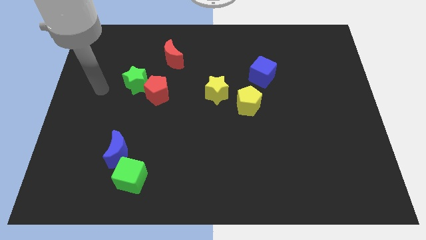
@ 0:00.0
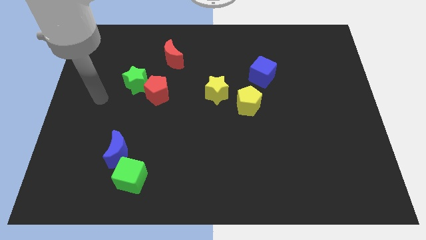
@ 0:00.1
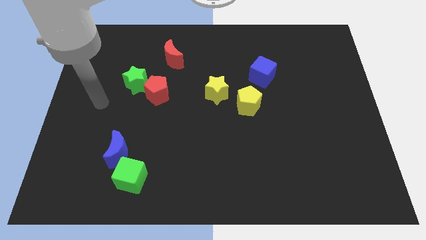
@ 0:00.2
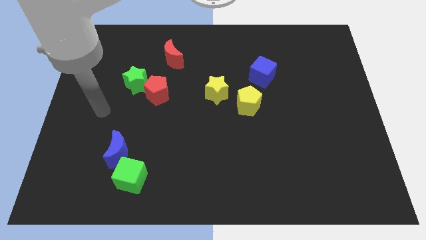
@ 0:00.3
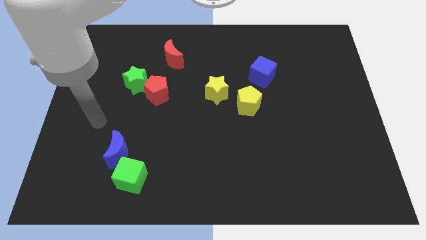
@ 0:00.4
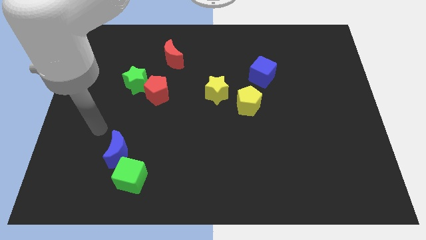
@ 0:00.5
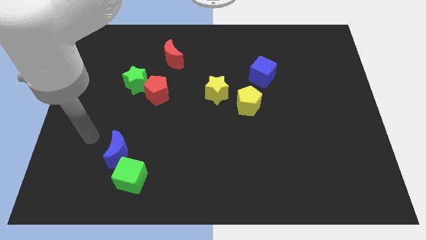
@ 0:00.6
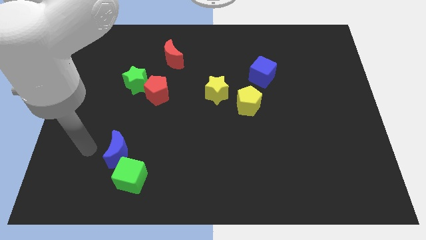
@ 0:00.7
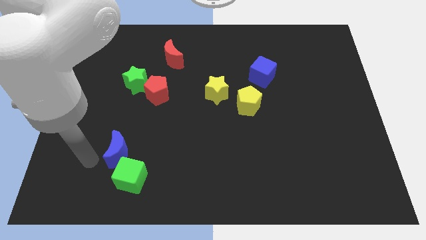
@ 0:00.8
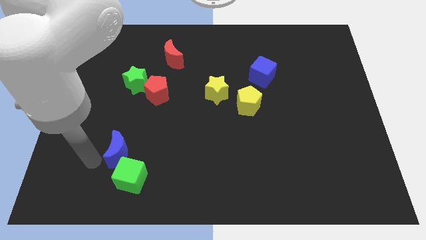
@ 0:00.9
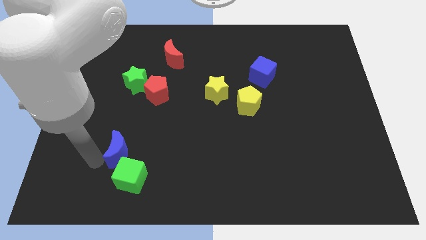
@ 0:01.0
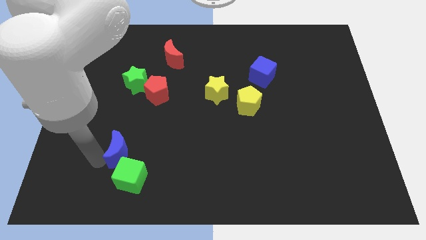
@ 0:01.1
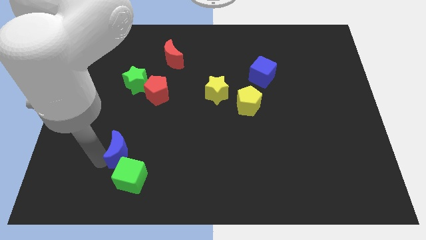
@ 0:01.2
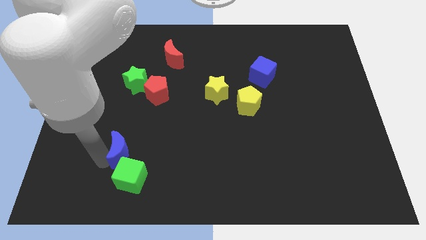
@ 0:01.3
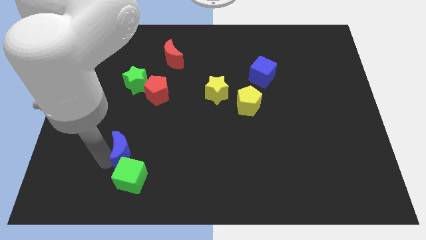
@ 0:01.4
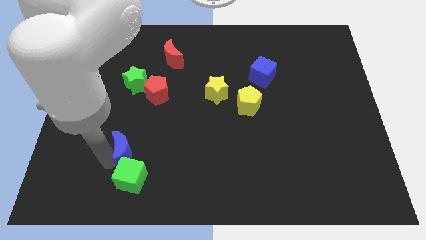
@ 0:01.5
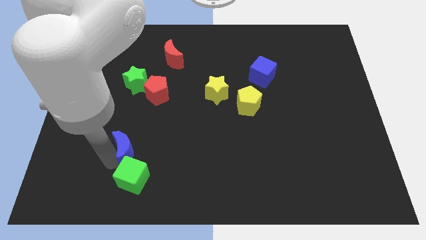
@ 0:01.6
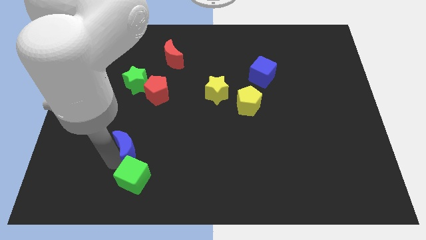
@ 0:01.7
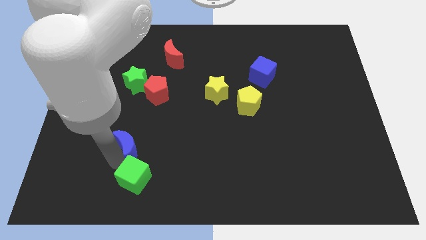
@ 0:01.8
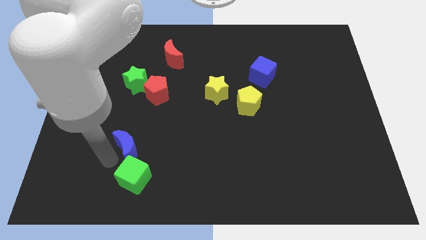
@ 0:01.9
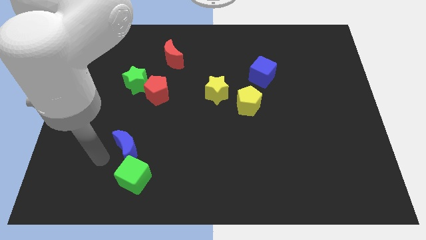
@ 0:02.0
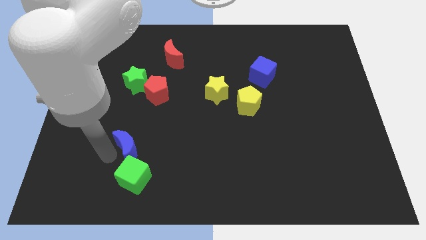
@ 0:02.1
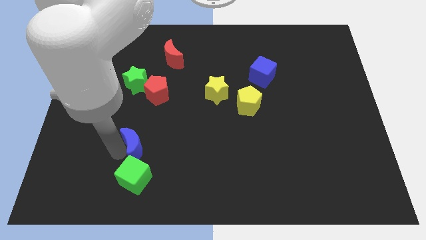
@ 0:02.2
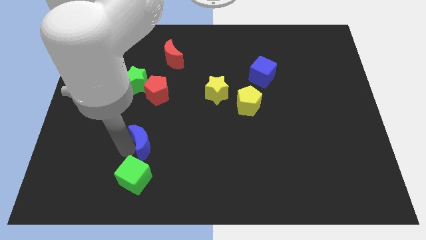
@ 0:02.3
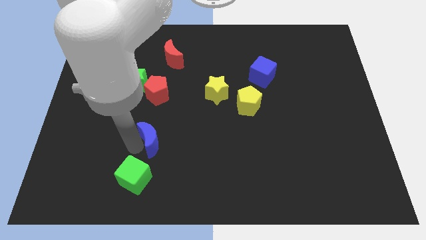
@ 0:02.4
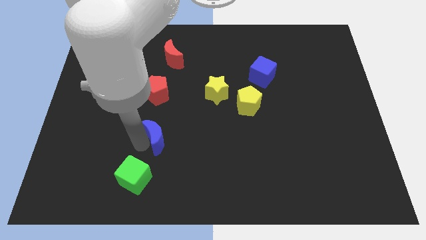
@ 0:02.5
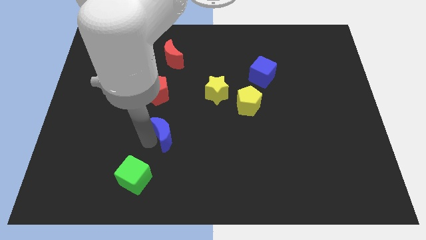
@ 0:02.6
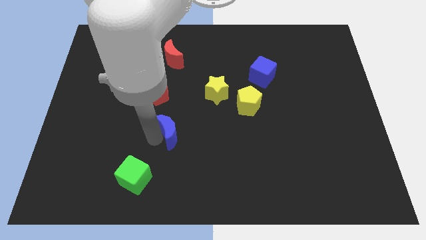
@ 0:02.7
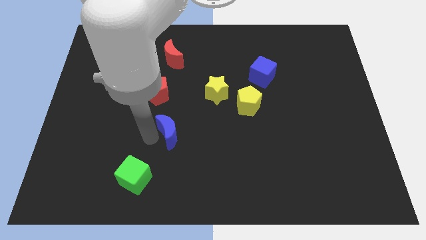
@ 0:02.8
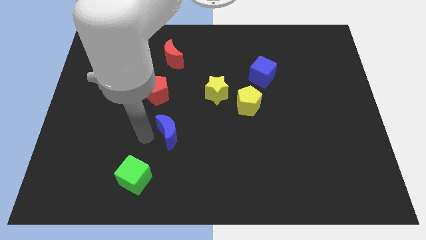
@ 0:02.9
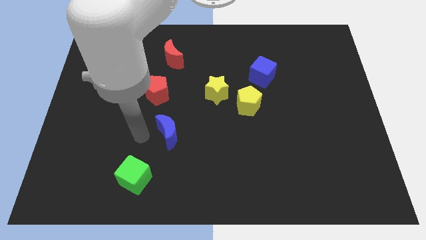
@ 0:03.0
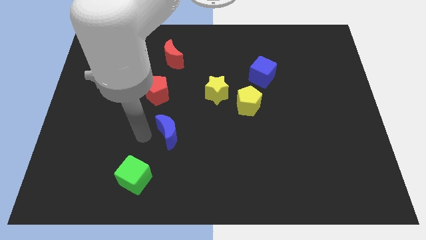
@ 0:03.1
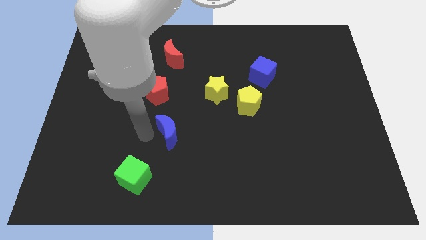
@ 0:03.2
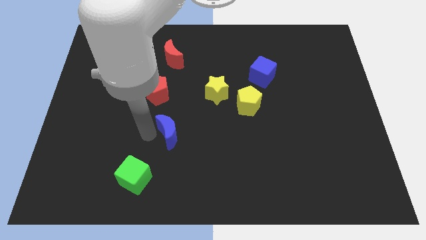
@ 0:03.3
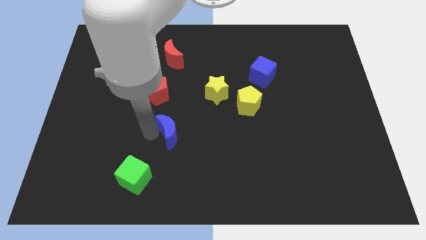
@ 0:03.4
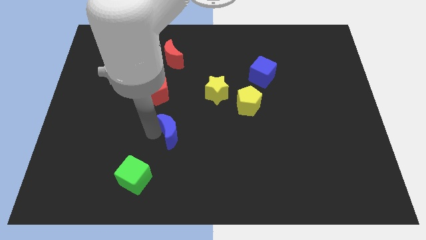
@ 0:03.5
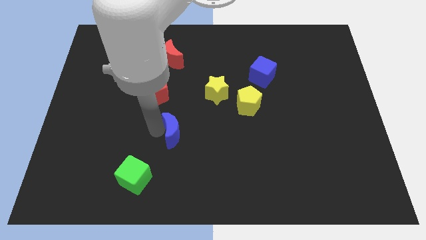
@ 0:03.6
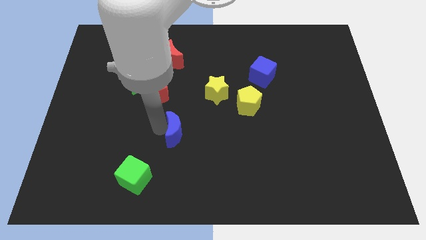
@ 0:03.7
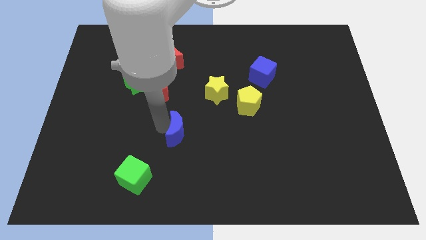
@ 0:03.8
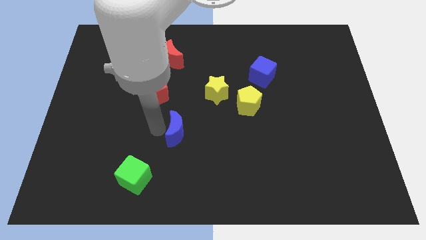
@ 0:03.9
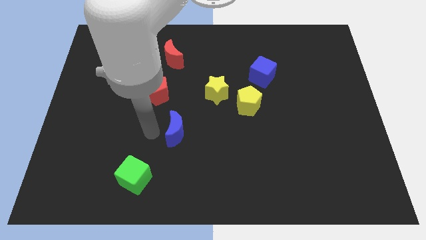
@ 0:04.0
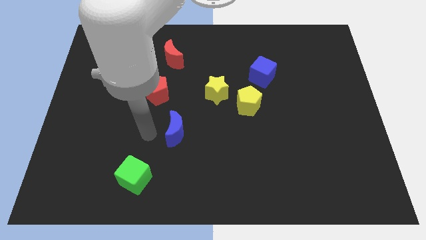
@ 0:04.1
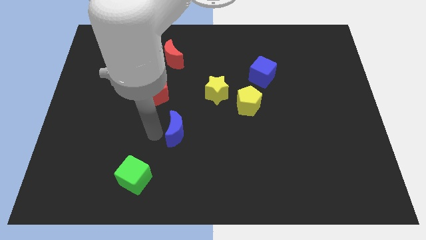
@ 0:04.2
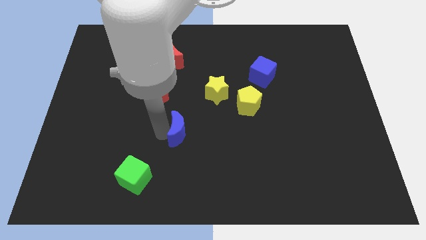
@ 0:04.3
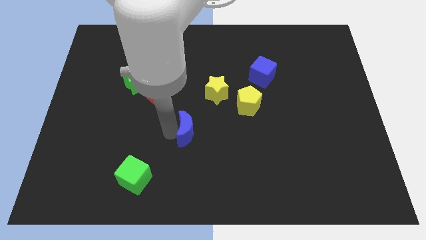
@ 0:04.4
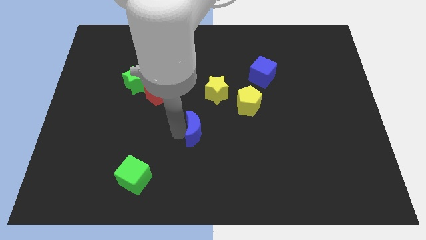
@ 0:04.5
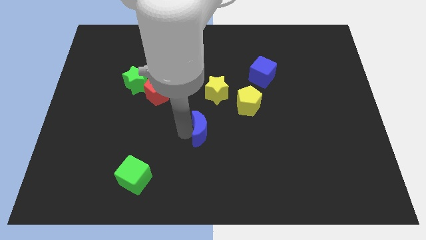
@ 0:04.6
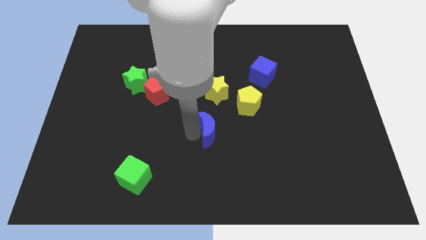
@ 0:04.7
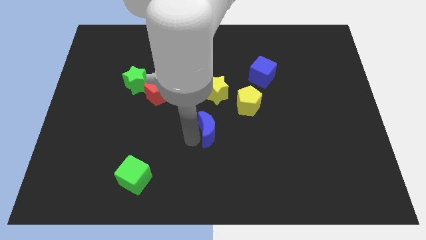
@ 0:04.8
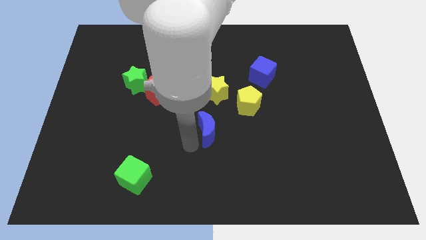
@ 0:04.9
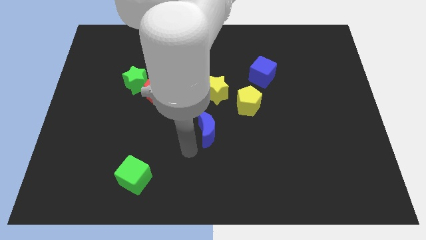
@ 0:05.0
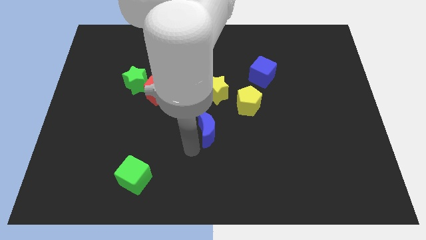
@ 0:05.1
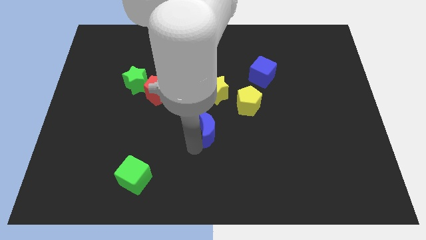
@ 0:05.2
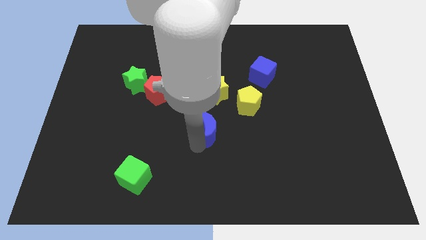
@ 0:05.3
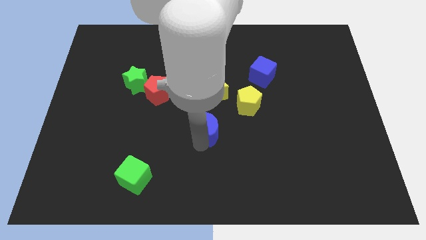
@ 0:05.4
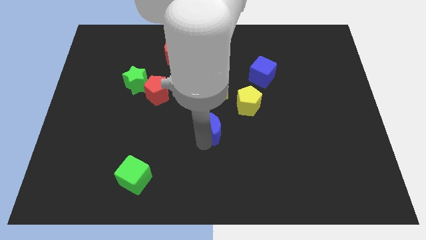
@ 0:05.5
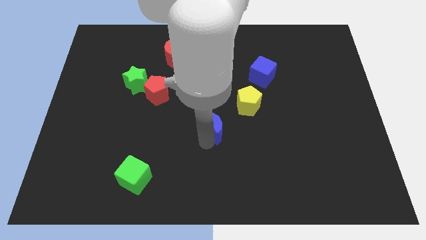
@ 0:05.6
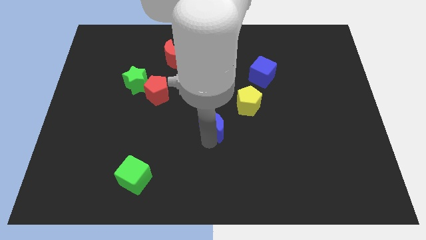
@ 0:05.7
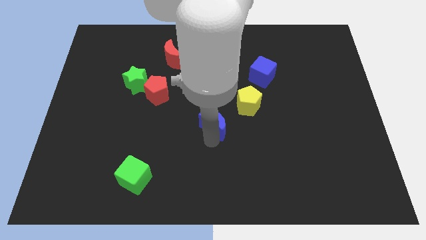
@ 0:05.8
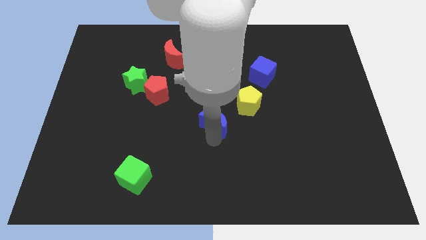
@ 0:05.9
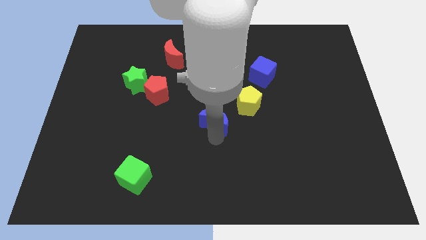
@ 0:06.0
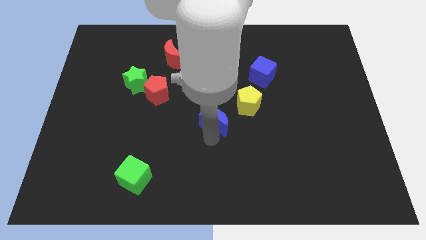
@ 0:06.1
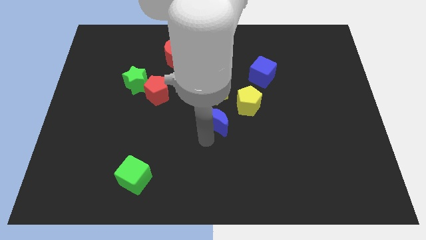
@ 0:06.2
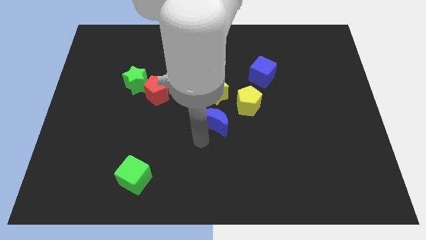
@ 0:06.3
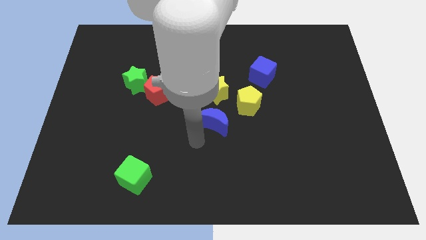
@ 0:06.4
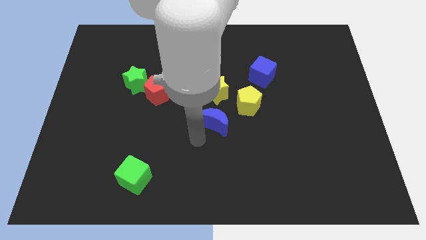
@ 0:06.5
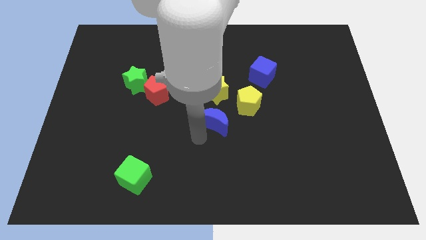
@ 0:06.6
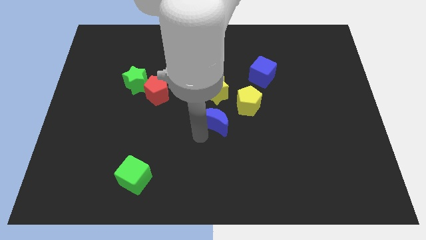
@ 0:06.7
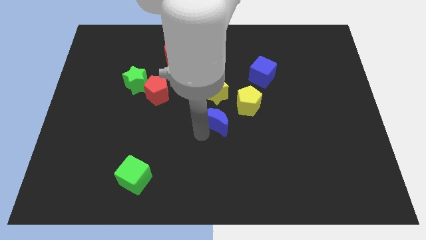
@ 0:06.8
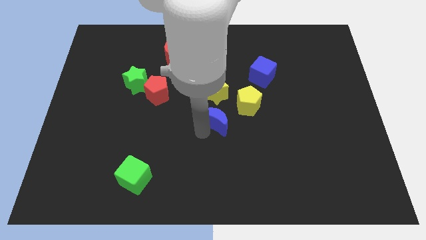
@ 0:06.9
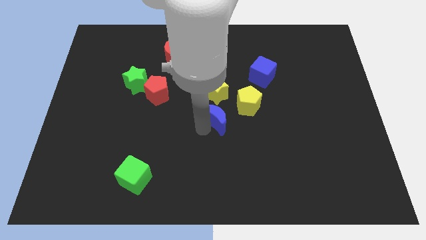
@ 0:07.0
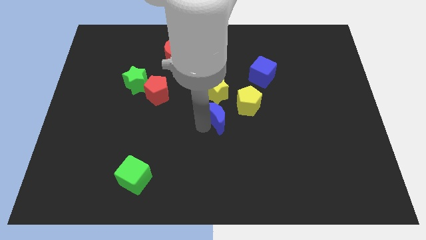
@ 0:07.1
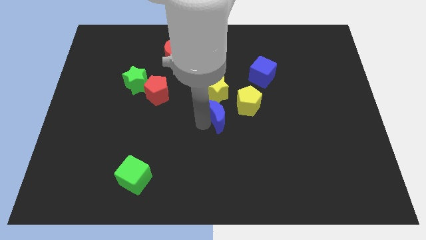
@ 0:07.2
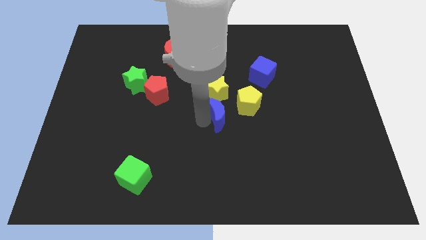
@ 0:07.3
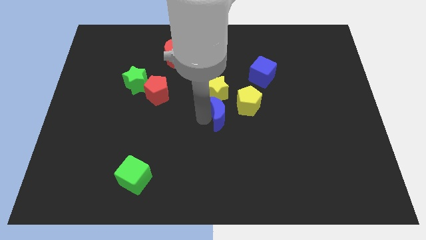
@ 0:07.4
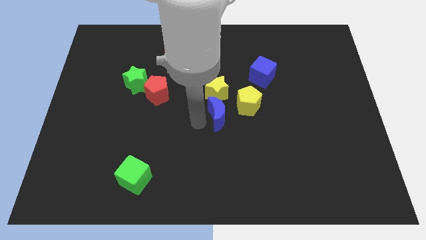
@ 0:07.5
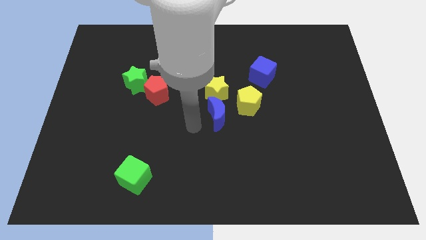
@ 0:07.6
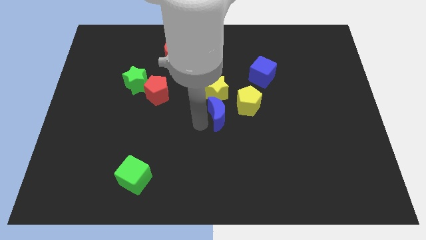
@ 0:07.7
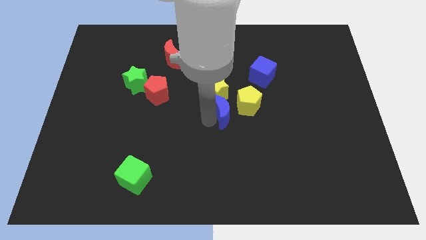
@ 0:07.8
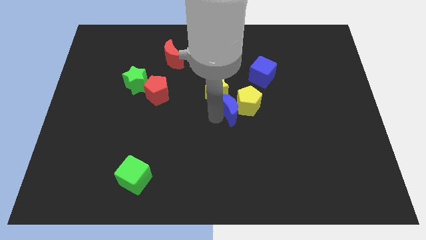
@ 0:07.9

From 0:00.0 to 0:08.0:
move the blue moon to the yellow pentagon
